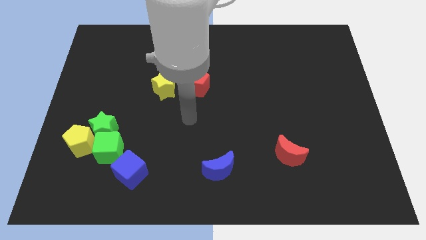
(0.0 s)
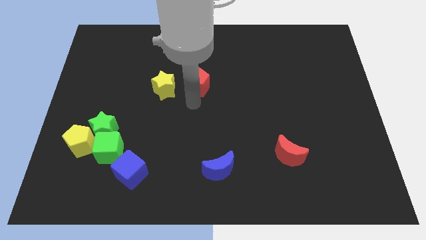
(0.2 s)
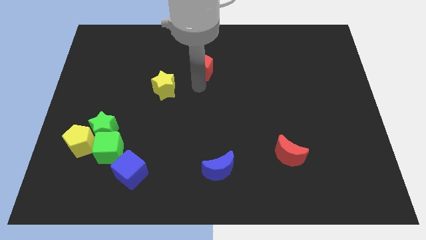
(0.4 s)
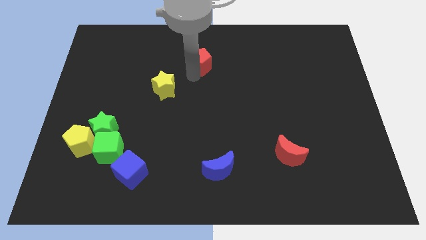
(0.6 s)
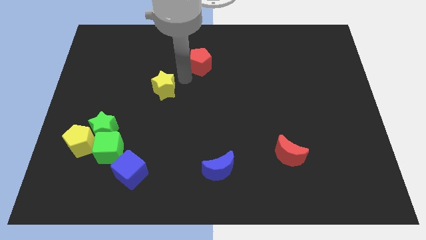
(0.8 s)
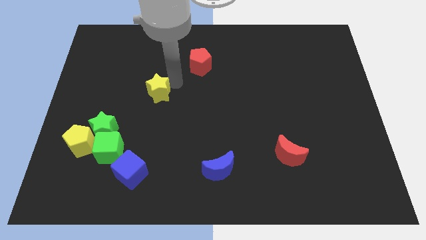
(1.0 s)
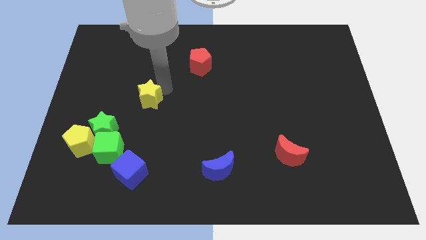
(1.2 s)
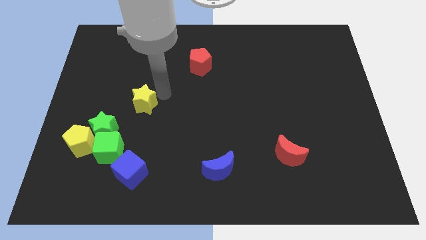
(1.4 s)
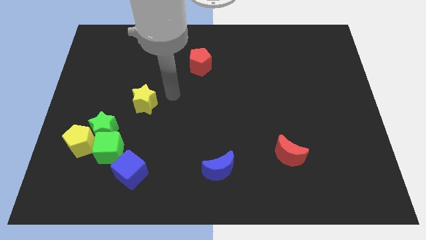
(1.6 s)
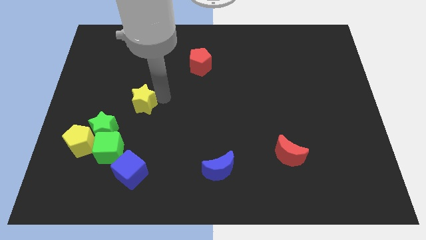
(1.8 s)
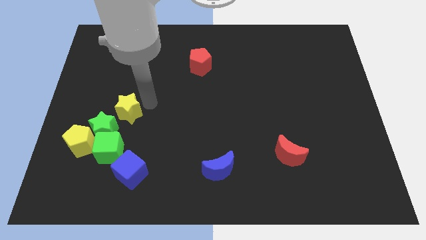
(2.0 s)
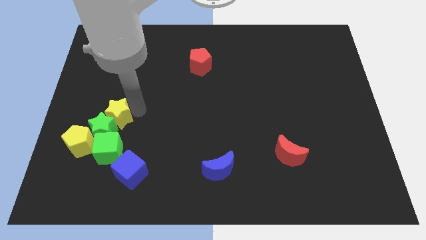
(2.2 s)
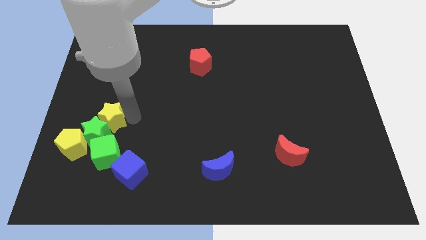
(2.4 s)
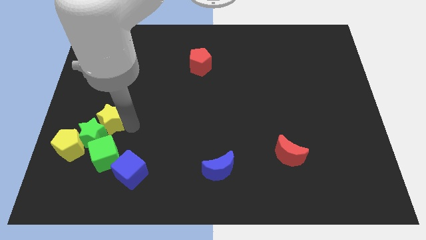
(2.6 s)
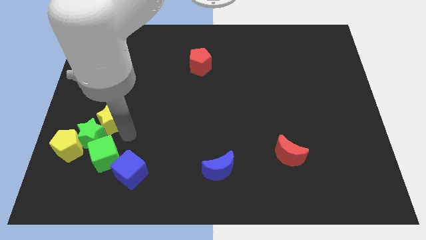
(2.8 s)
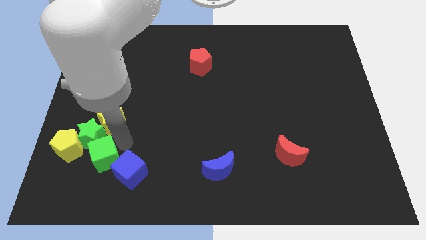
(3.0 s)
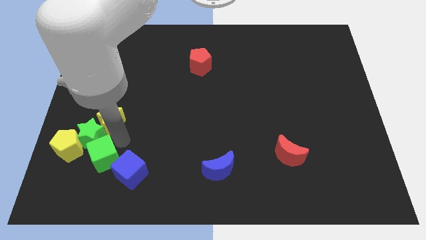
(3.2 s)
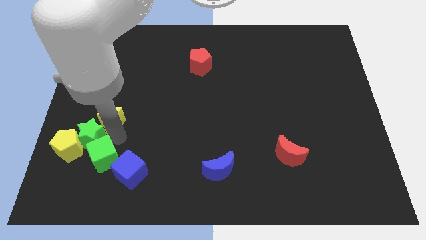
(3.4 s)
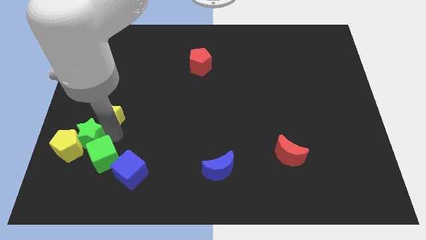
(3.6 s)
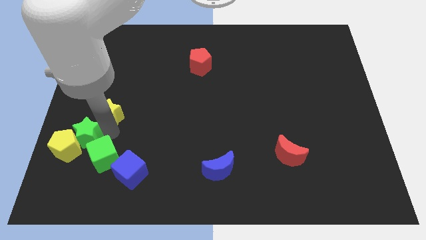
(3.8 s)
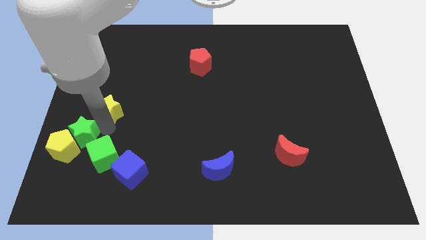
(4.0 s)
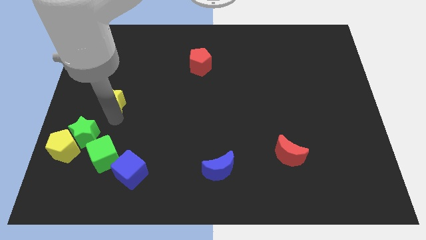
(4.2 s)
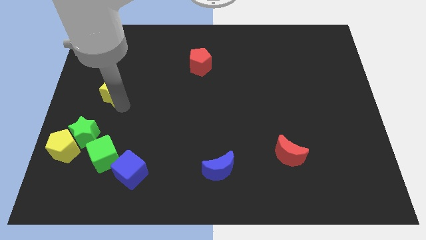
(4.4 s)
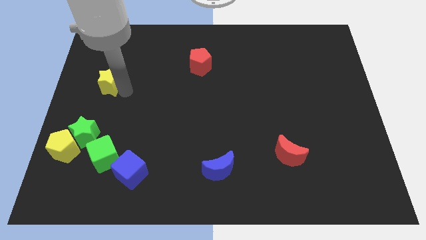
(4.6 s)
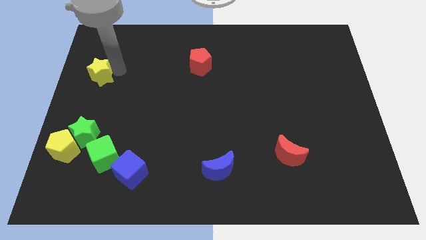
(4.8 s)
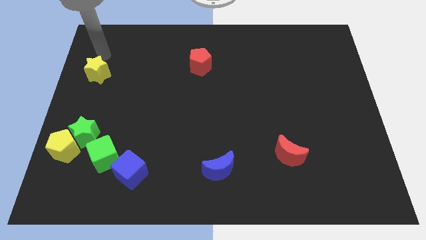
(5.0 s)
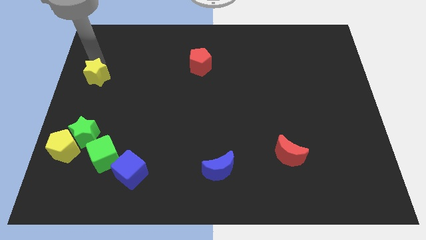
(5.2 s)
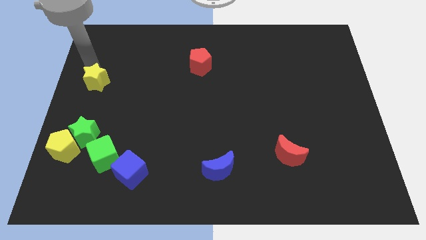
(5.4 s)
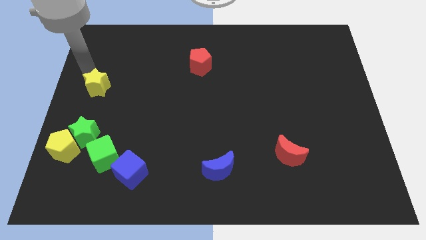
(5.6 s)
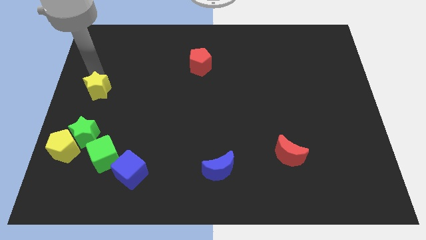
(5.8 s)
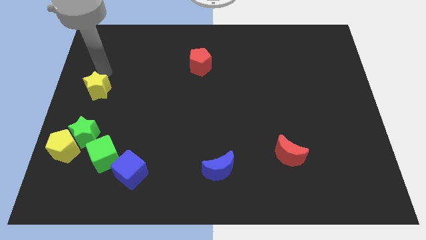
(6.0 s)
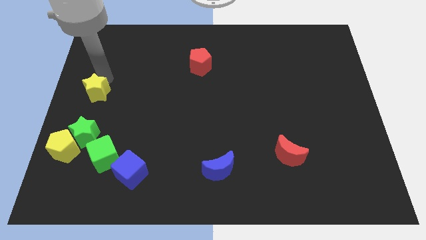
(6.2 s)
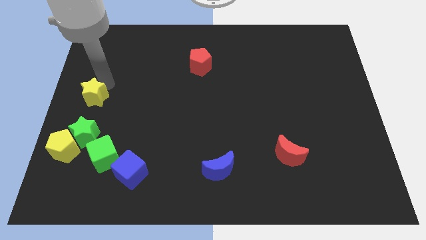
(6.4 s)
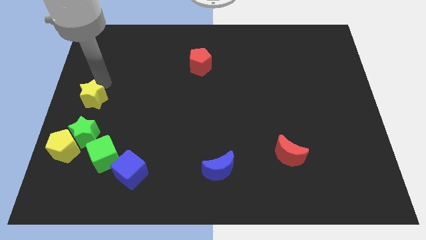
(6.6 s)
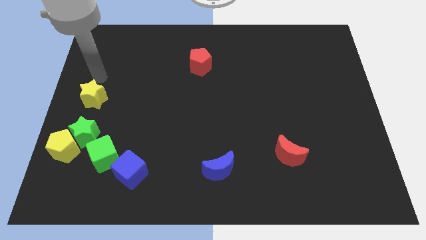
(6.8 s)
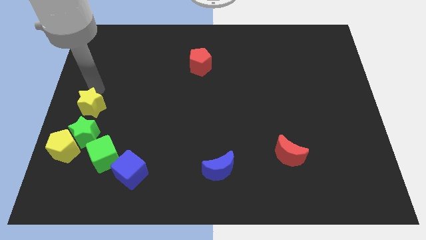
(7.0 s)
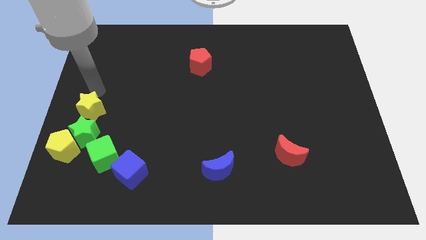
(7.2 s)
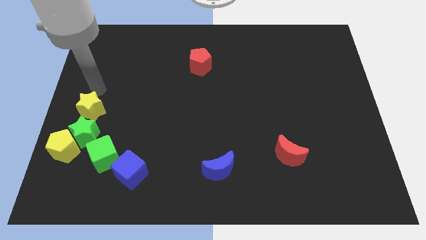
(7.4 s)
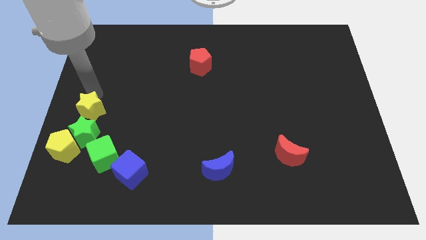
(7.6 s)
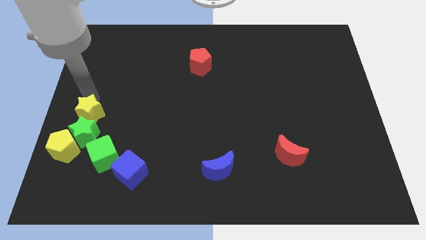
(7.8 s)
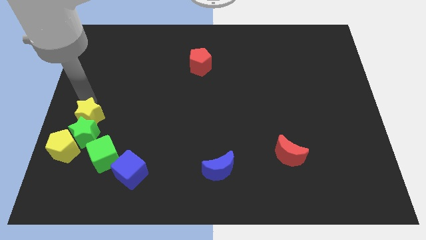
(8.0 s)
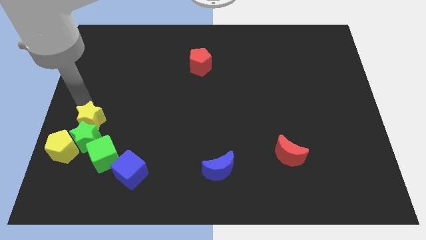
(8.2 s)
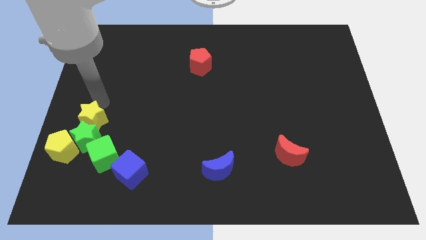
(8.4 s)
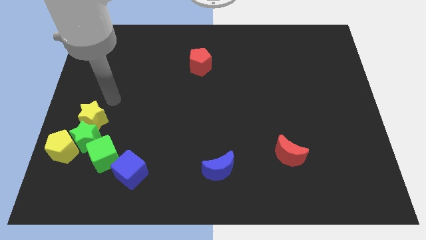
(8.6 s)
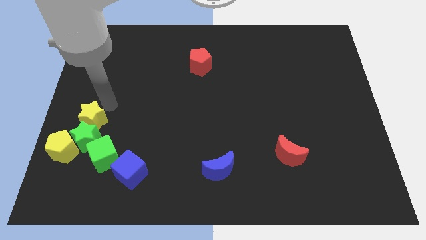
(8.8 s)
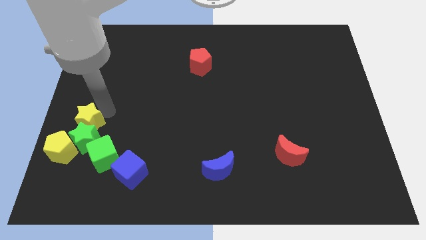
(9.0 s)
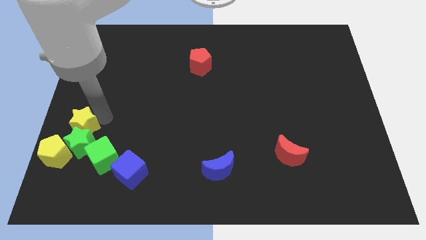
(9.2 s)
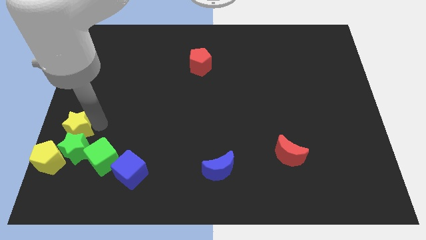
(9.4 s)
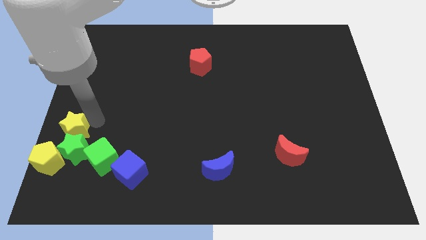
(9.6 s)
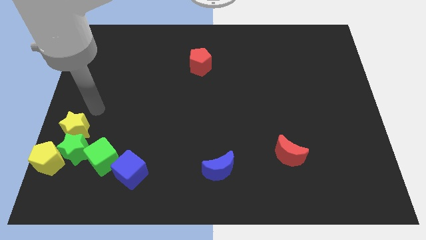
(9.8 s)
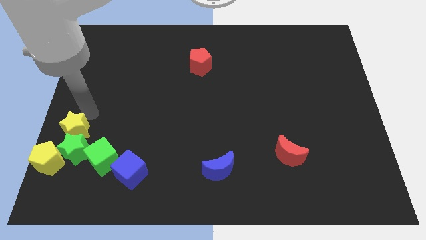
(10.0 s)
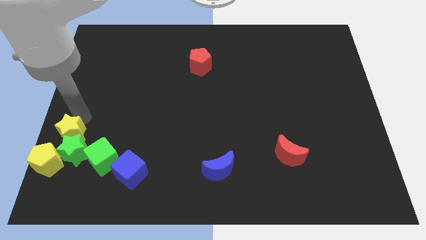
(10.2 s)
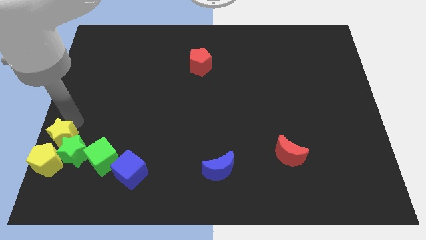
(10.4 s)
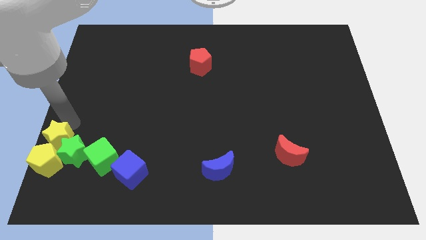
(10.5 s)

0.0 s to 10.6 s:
slide the yellow star to the yellow pentagon

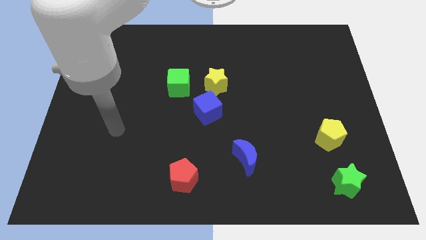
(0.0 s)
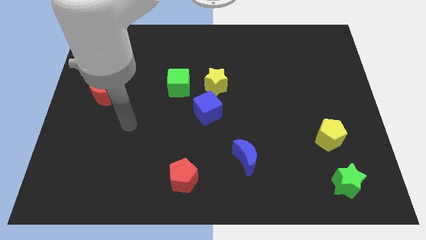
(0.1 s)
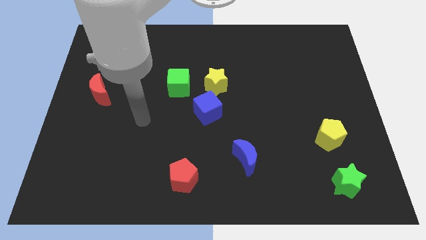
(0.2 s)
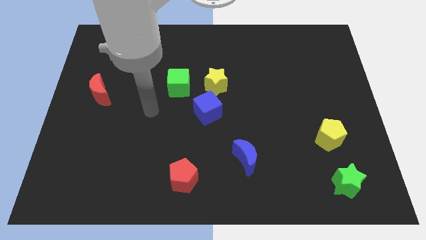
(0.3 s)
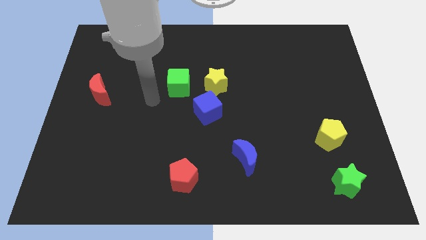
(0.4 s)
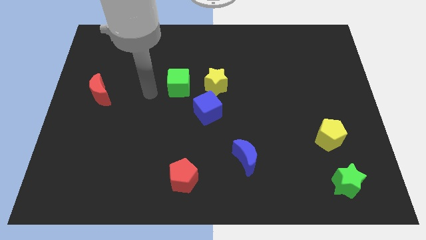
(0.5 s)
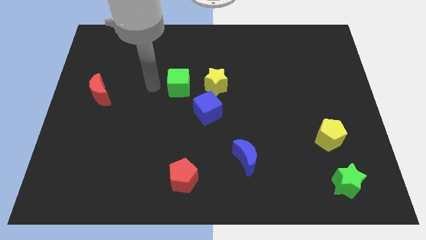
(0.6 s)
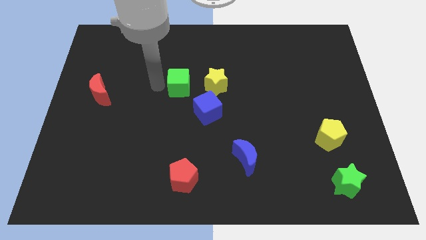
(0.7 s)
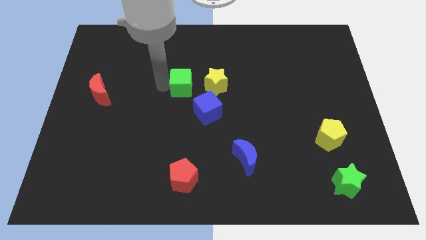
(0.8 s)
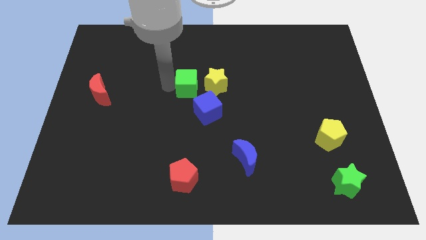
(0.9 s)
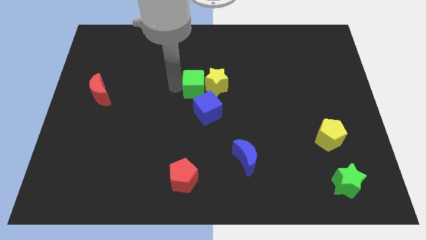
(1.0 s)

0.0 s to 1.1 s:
put the green cube close to the yellow star

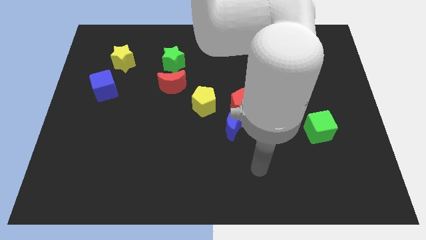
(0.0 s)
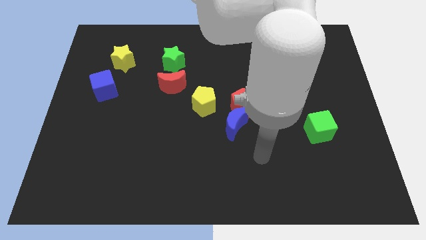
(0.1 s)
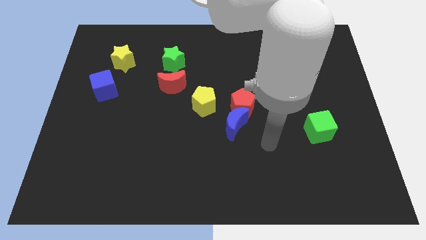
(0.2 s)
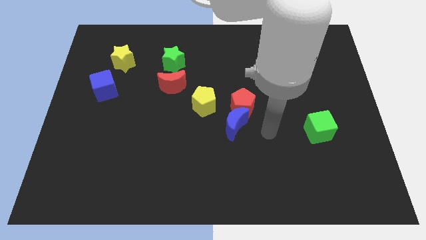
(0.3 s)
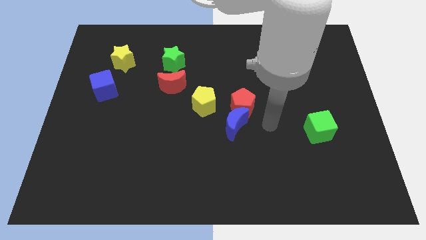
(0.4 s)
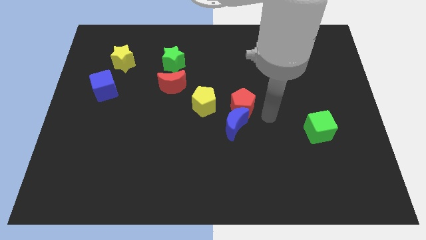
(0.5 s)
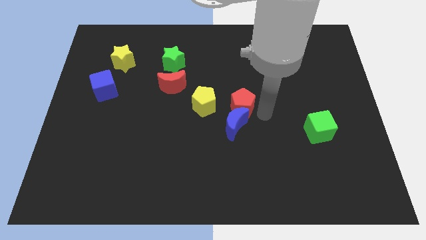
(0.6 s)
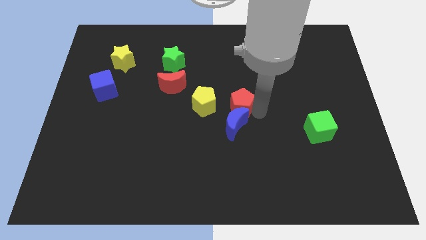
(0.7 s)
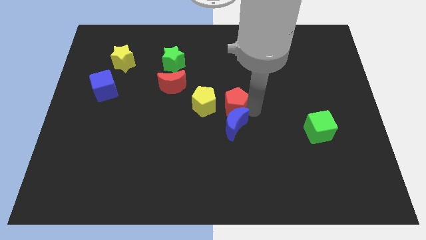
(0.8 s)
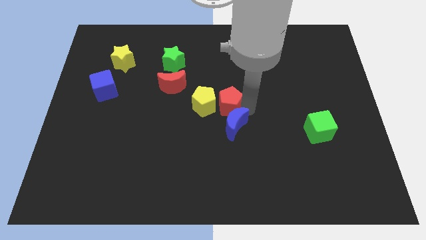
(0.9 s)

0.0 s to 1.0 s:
put the red pentagon to the yellow pentagon
